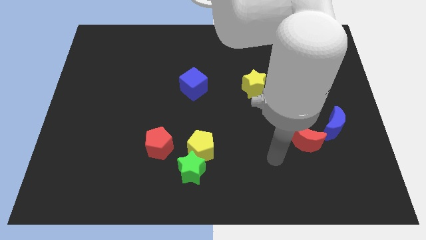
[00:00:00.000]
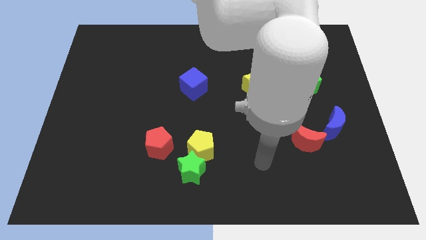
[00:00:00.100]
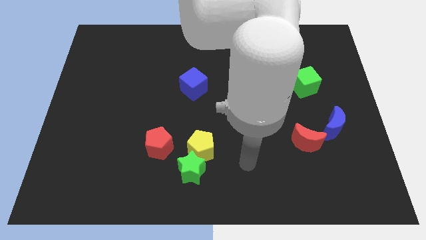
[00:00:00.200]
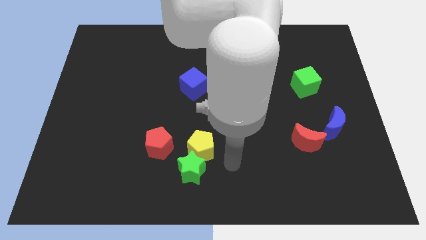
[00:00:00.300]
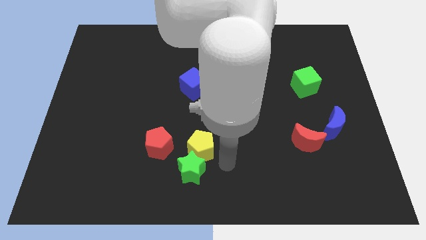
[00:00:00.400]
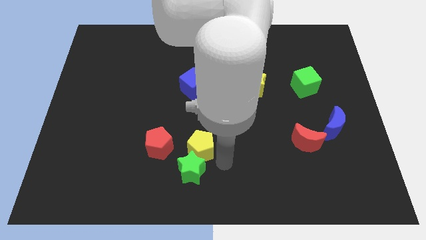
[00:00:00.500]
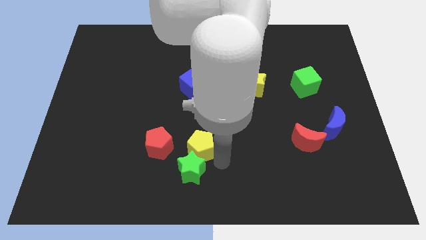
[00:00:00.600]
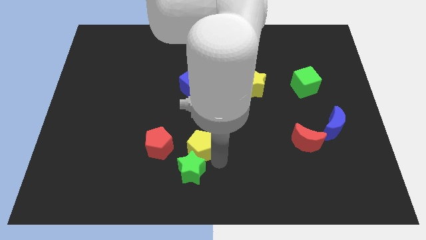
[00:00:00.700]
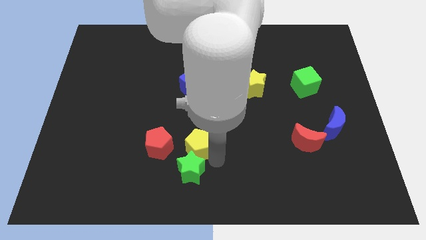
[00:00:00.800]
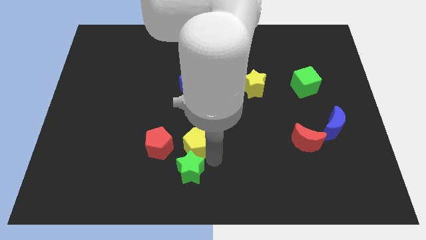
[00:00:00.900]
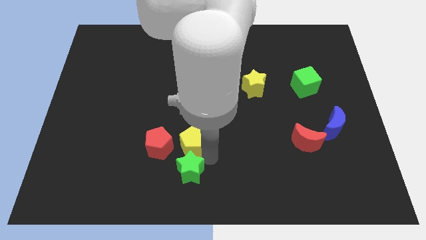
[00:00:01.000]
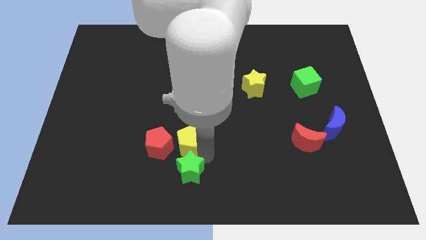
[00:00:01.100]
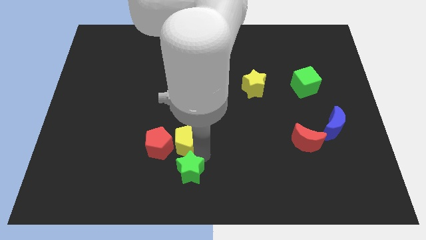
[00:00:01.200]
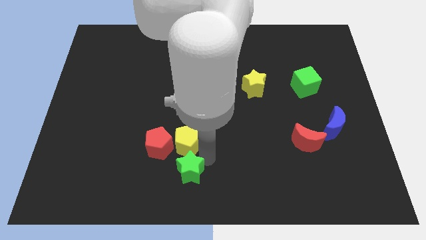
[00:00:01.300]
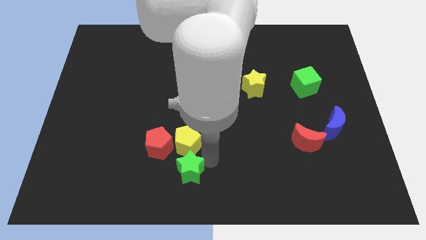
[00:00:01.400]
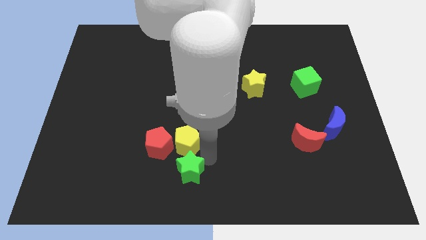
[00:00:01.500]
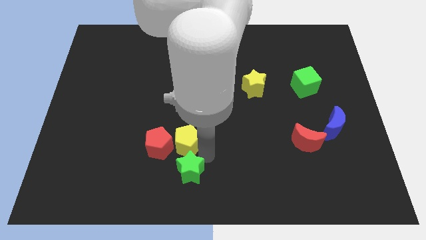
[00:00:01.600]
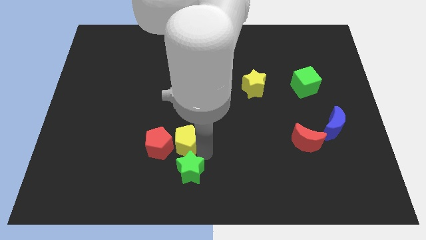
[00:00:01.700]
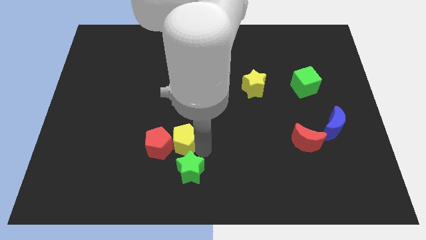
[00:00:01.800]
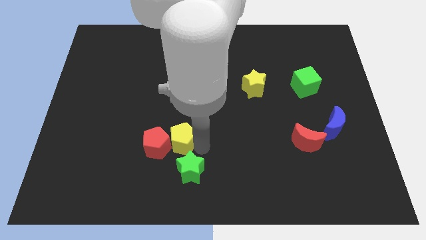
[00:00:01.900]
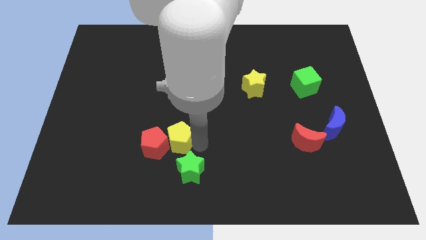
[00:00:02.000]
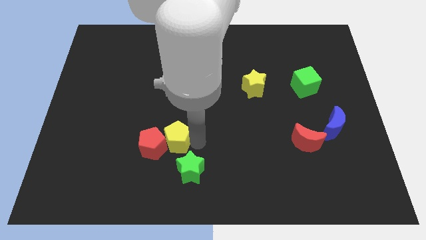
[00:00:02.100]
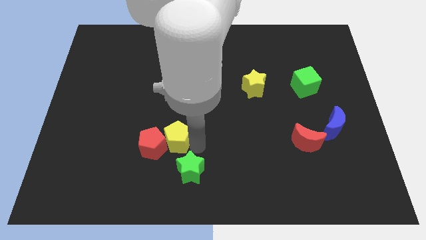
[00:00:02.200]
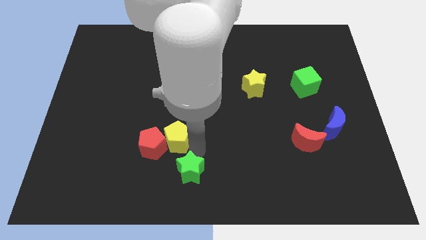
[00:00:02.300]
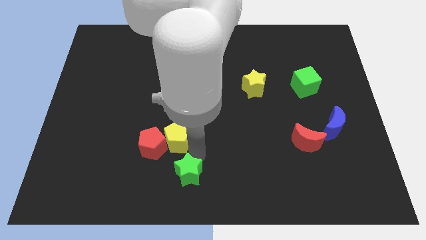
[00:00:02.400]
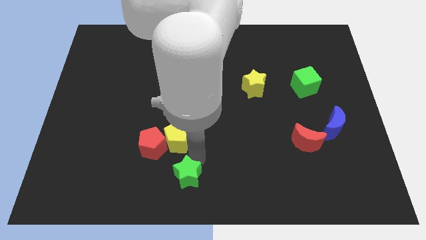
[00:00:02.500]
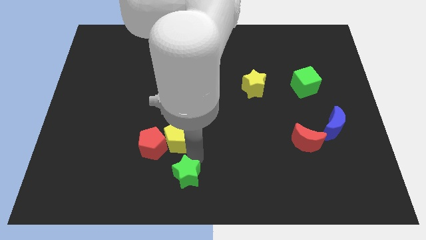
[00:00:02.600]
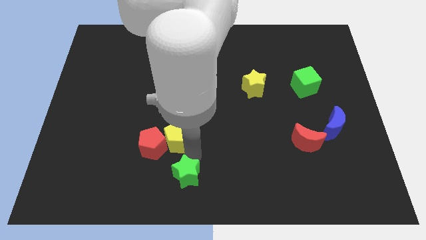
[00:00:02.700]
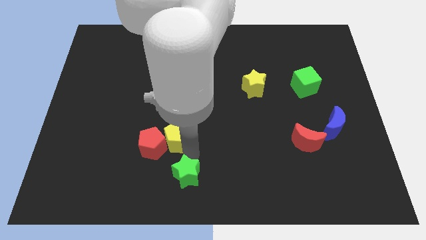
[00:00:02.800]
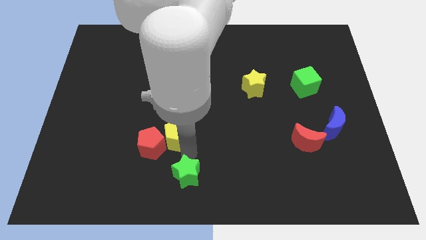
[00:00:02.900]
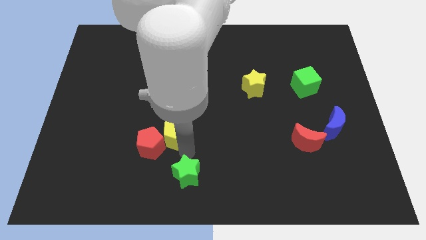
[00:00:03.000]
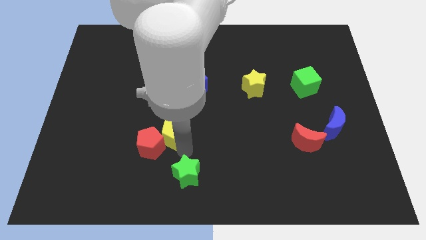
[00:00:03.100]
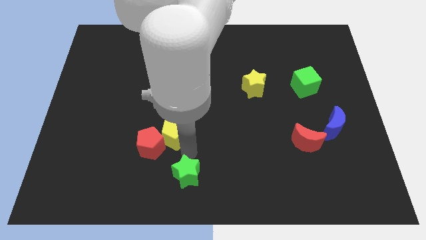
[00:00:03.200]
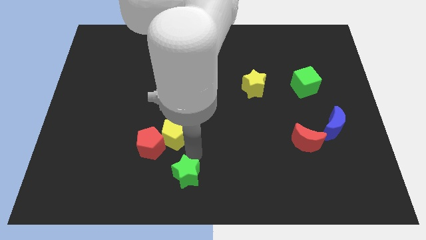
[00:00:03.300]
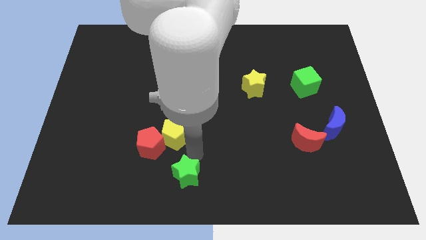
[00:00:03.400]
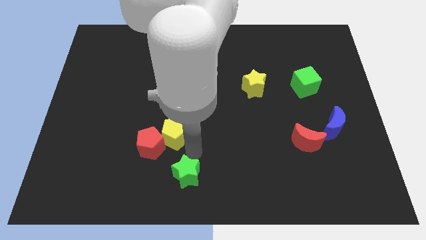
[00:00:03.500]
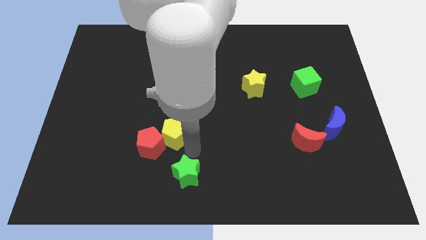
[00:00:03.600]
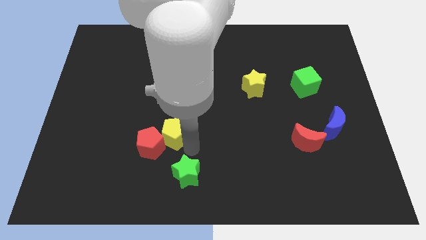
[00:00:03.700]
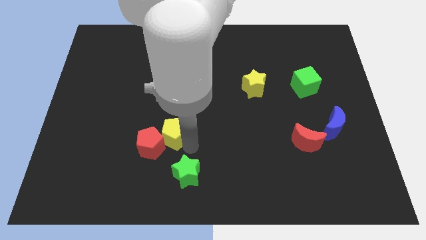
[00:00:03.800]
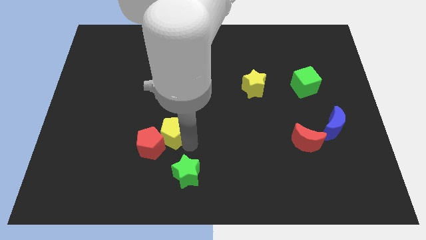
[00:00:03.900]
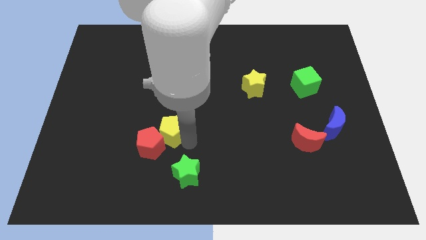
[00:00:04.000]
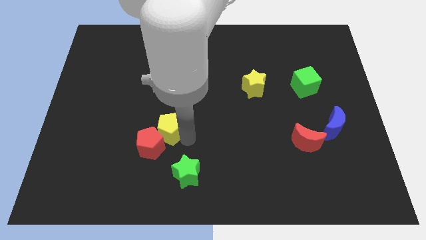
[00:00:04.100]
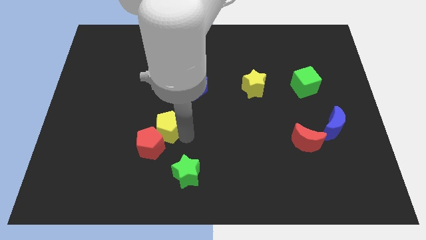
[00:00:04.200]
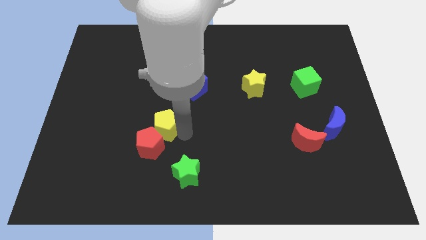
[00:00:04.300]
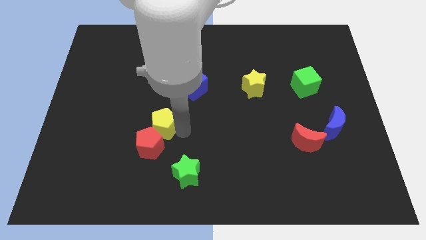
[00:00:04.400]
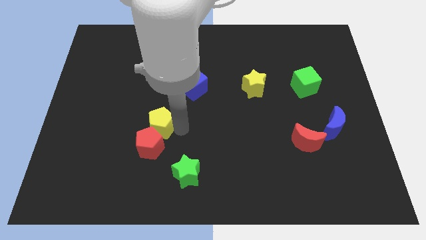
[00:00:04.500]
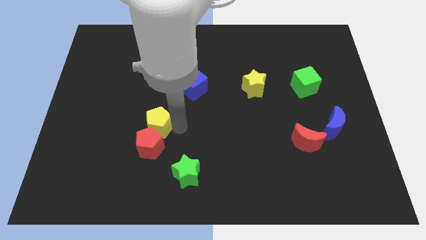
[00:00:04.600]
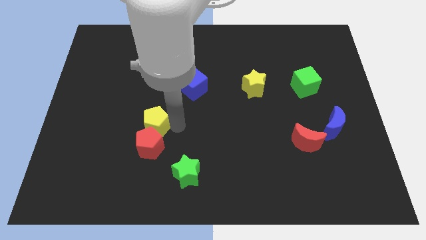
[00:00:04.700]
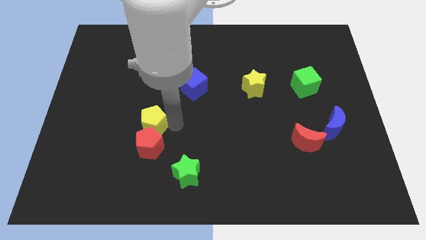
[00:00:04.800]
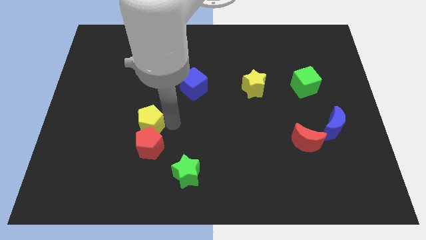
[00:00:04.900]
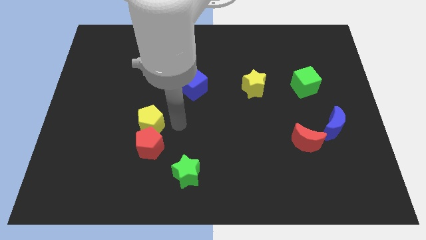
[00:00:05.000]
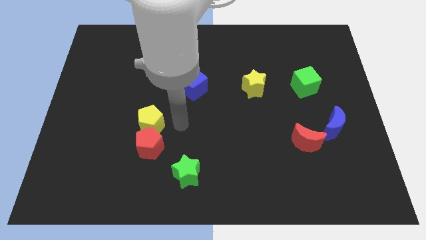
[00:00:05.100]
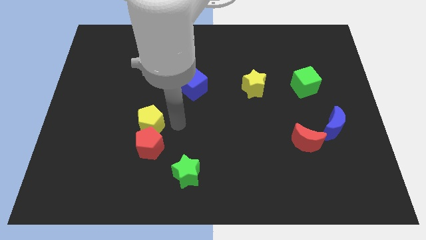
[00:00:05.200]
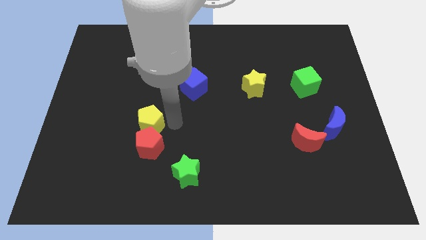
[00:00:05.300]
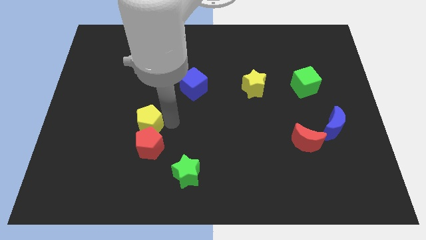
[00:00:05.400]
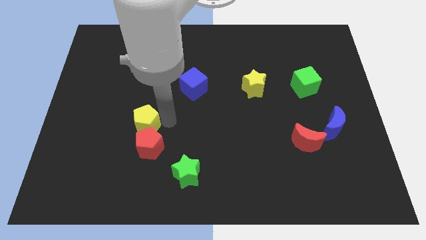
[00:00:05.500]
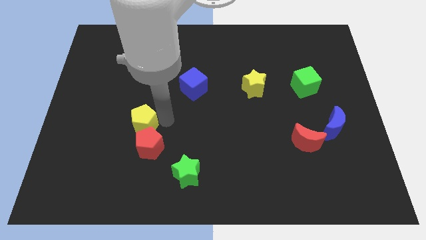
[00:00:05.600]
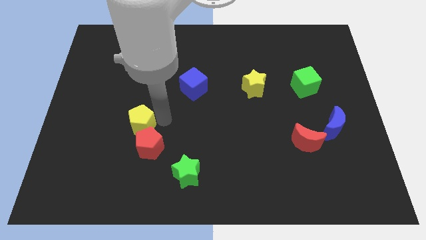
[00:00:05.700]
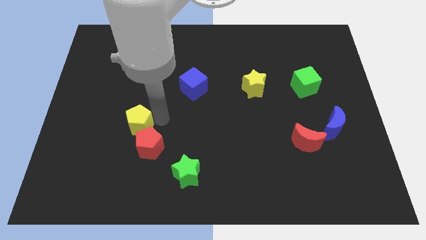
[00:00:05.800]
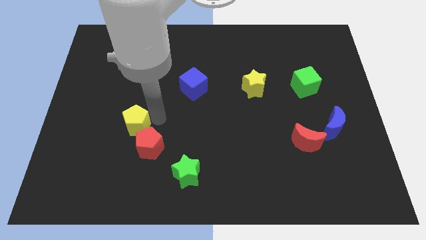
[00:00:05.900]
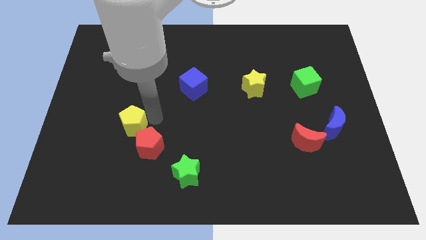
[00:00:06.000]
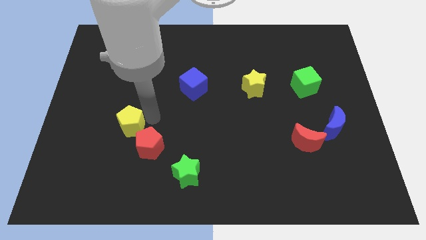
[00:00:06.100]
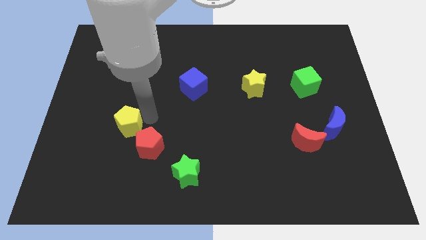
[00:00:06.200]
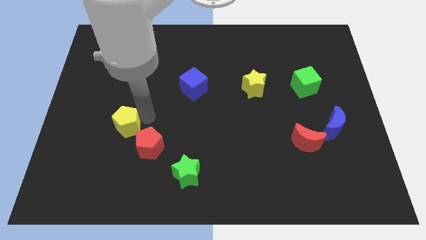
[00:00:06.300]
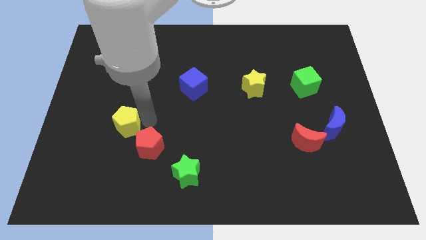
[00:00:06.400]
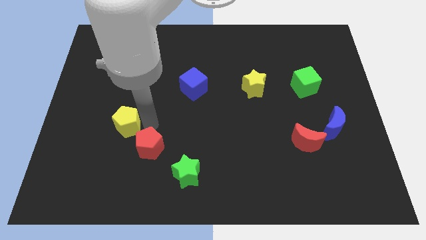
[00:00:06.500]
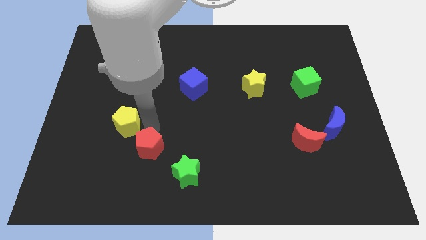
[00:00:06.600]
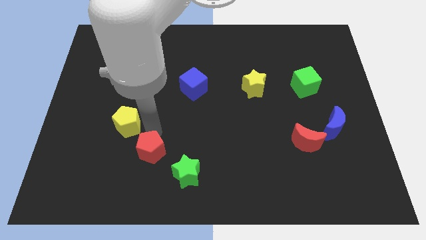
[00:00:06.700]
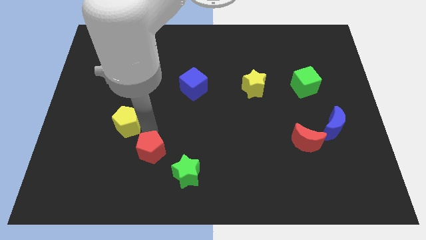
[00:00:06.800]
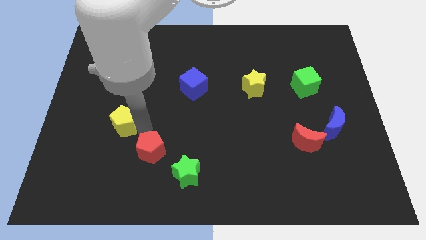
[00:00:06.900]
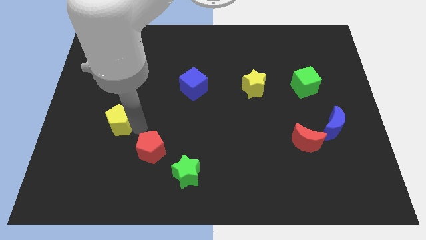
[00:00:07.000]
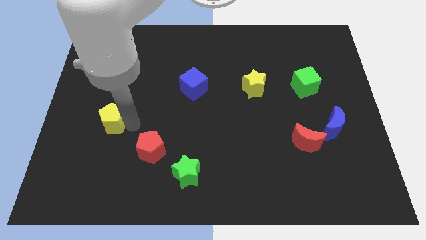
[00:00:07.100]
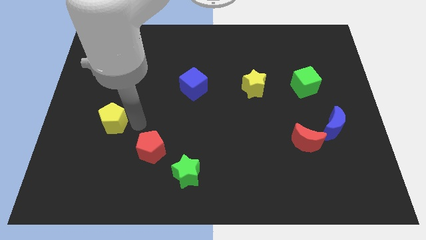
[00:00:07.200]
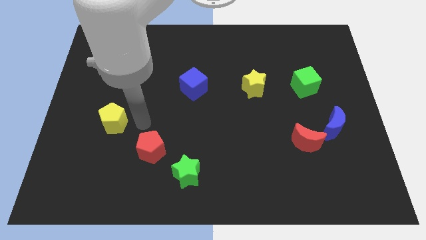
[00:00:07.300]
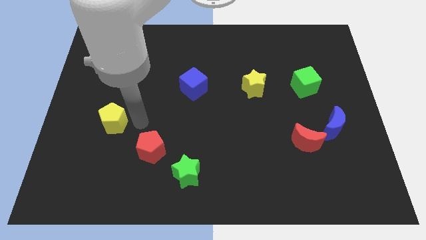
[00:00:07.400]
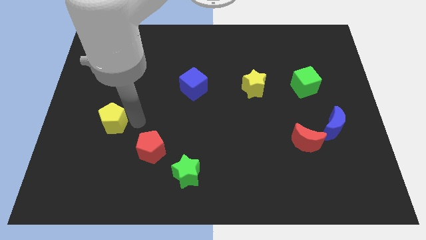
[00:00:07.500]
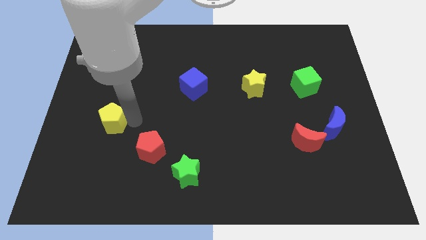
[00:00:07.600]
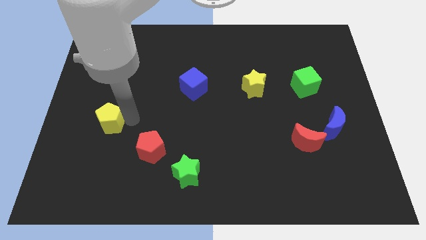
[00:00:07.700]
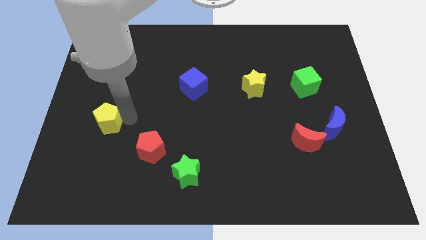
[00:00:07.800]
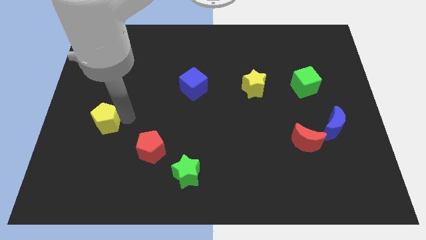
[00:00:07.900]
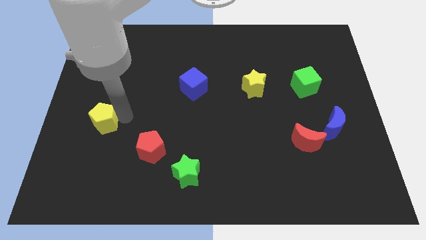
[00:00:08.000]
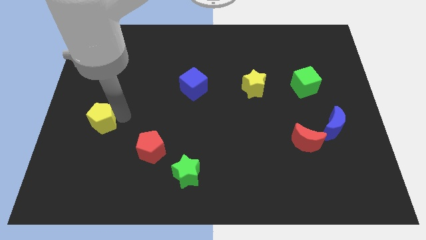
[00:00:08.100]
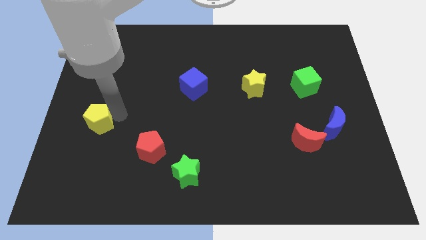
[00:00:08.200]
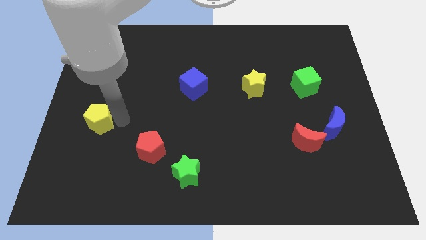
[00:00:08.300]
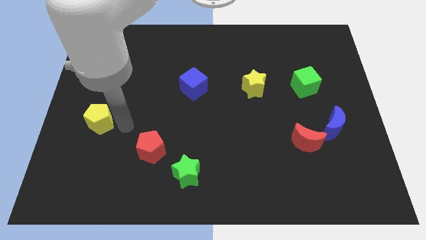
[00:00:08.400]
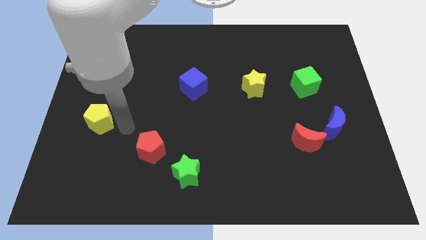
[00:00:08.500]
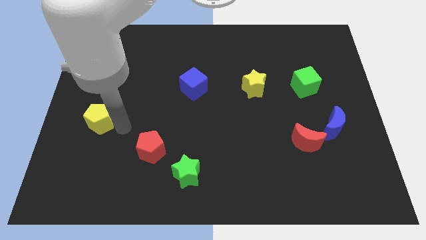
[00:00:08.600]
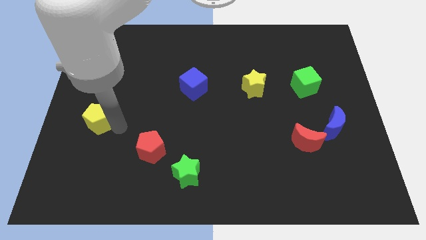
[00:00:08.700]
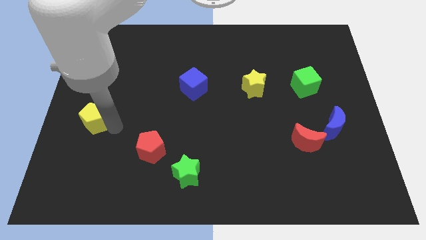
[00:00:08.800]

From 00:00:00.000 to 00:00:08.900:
push the yellow pentagon to the center left
